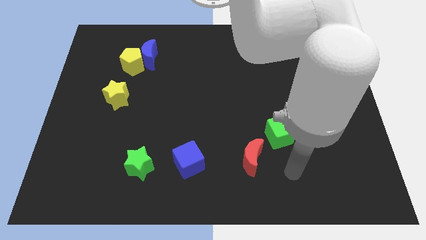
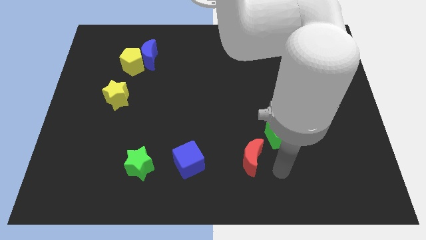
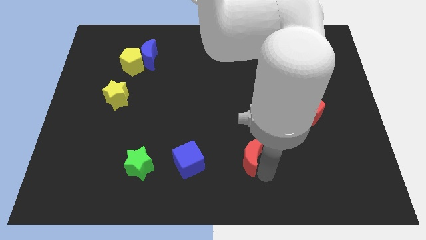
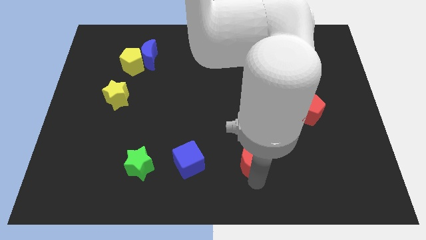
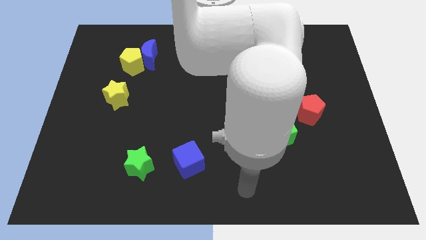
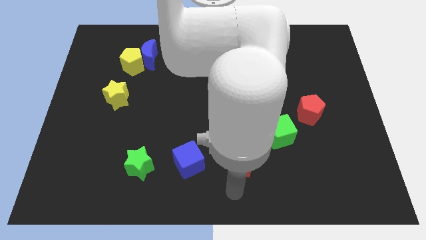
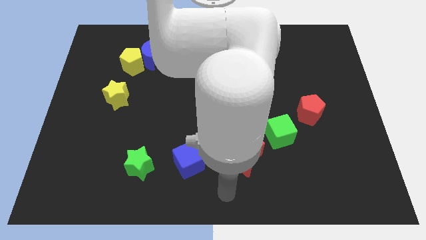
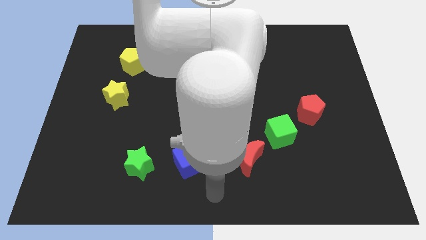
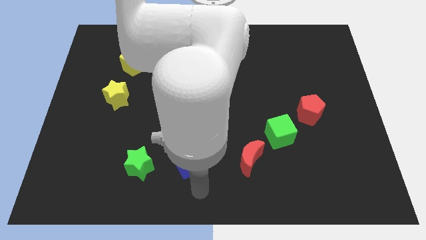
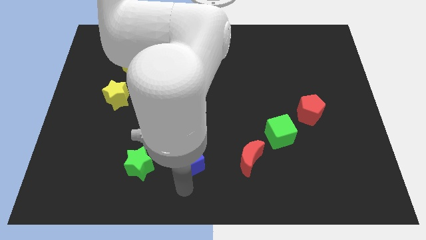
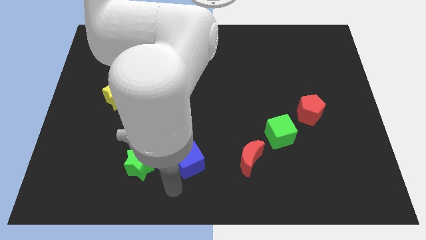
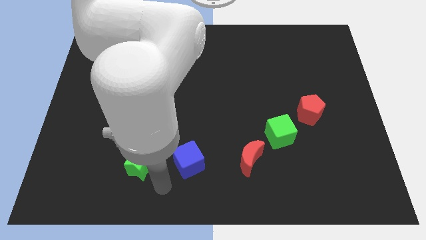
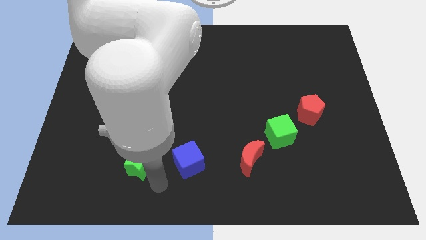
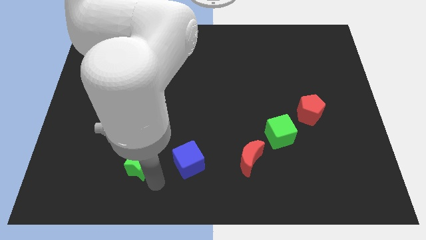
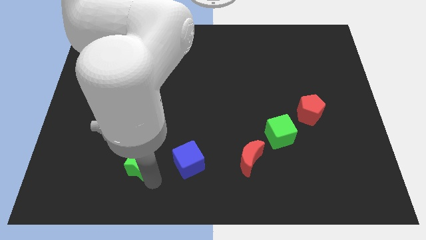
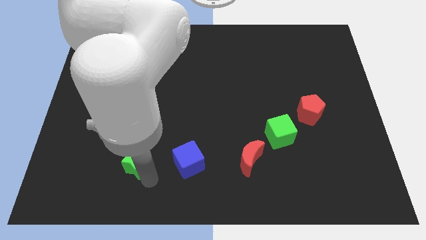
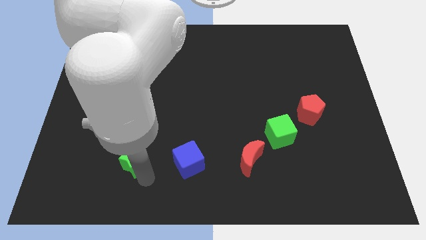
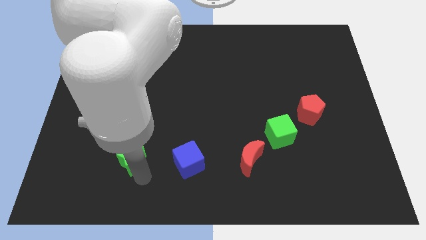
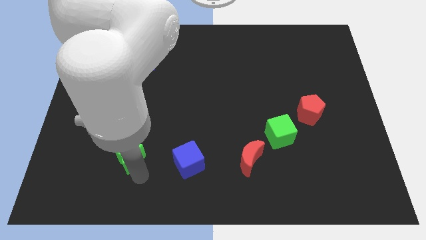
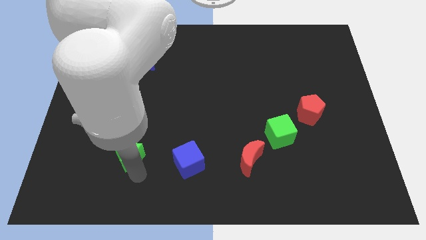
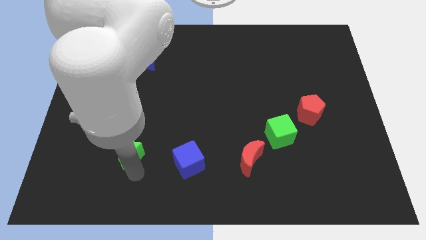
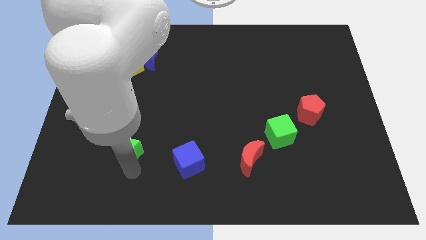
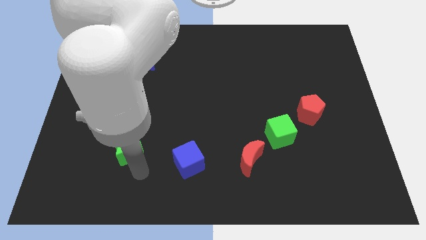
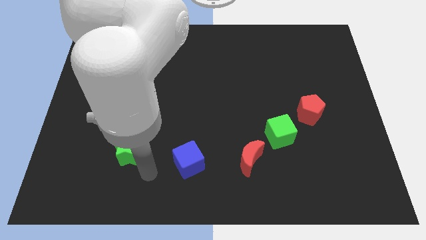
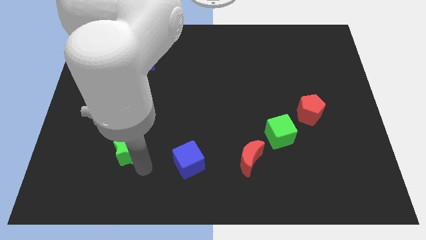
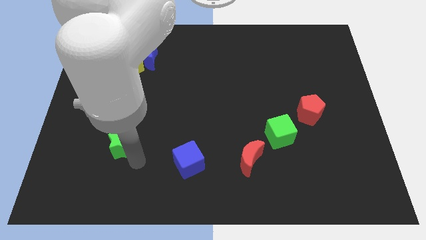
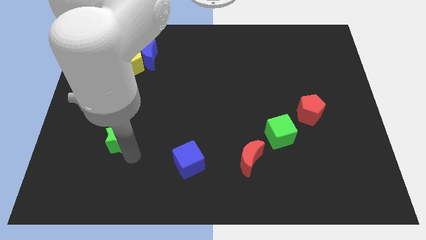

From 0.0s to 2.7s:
push the green star up and to the left somewhat

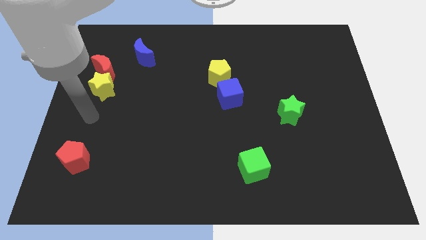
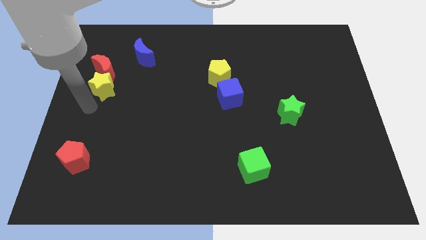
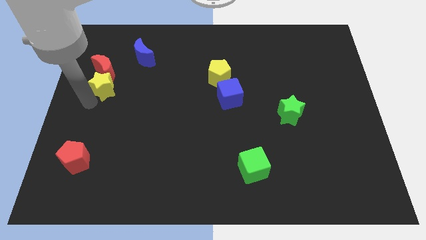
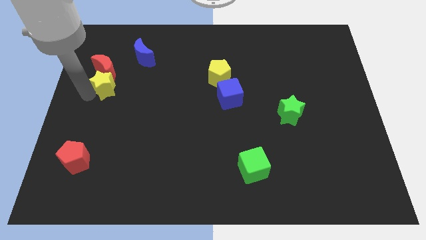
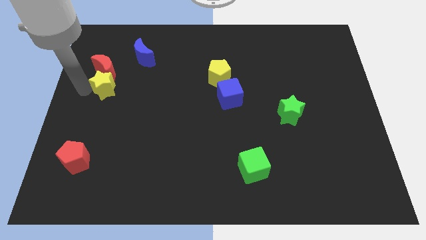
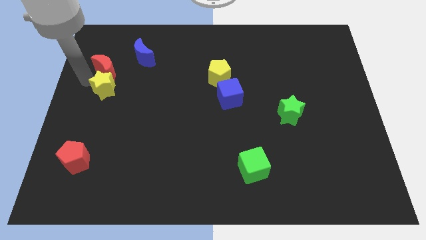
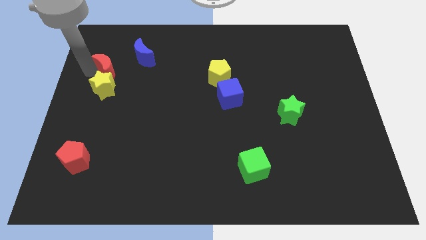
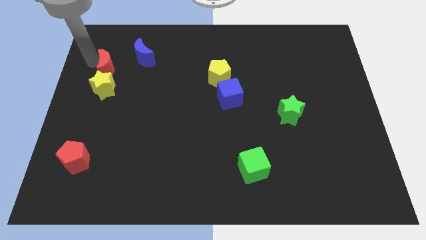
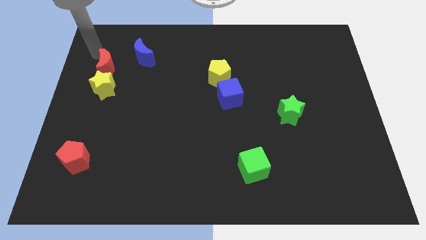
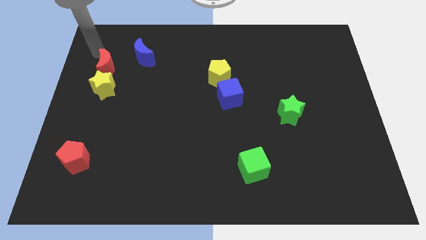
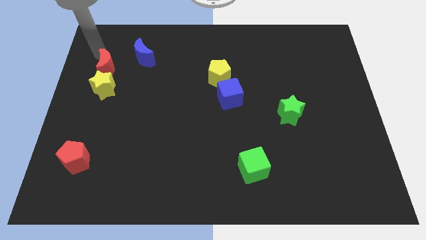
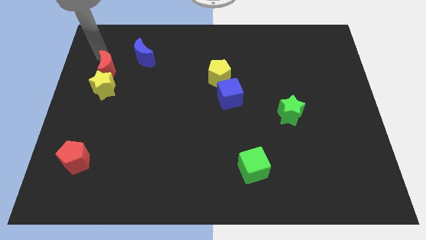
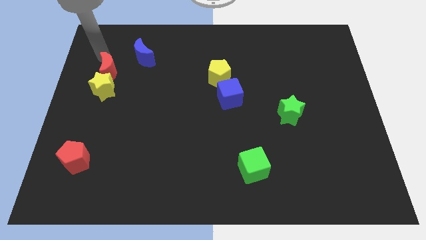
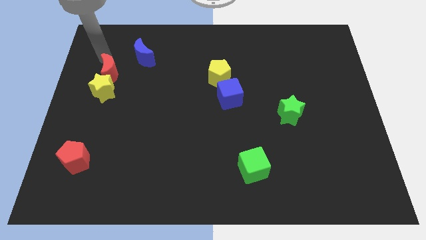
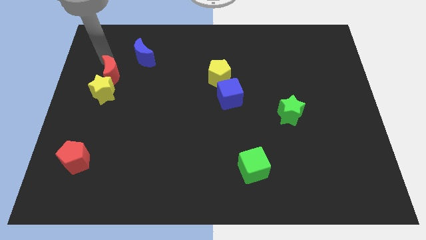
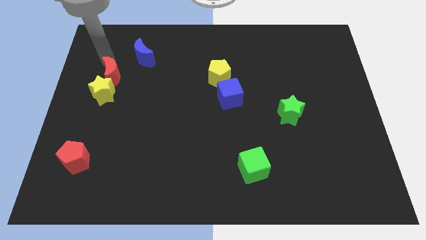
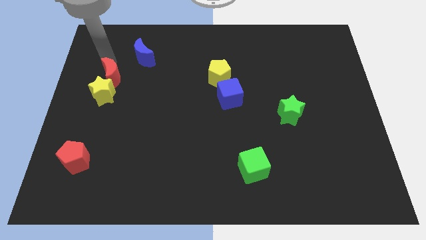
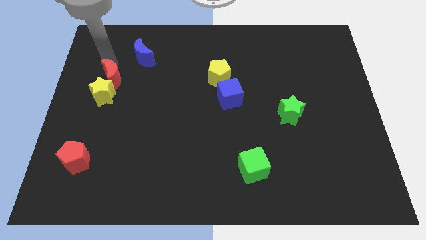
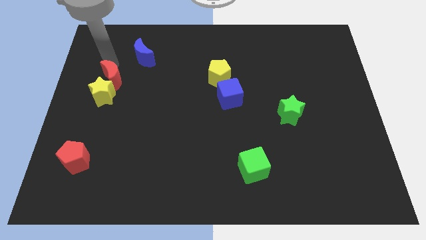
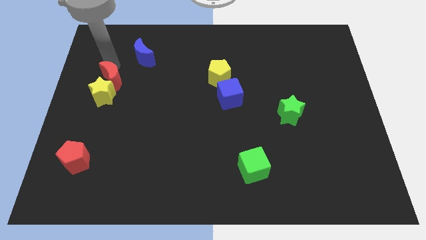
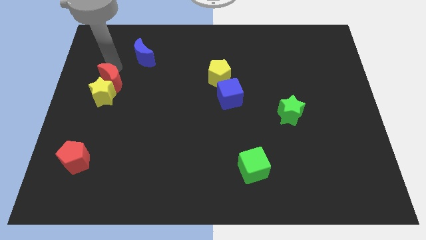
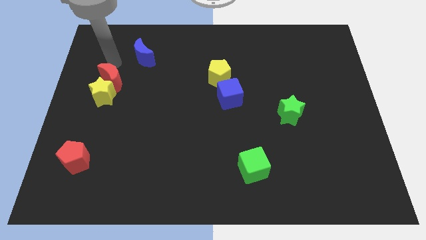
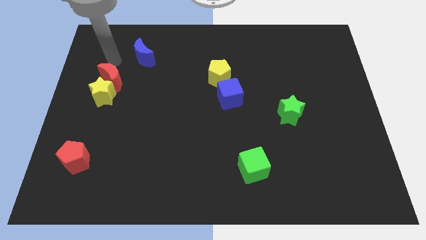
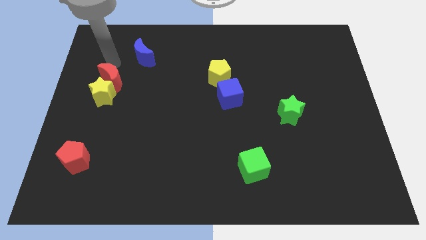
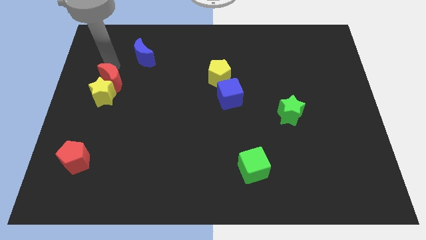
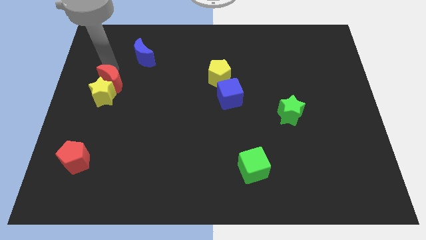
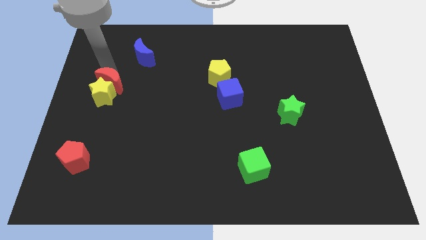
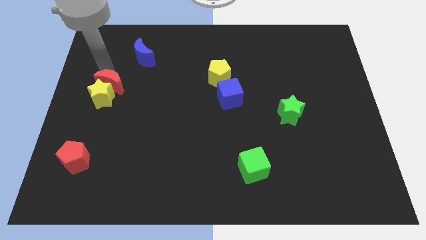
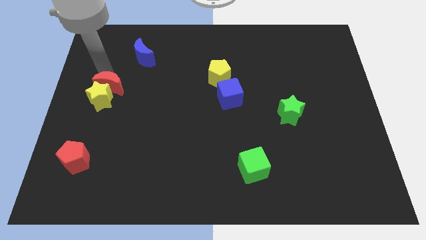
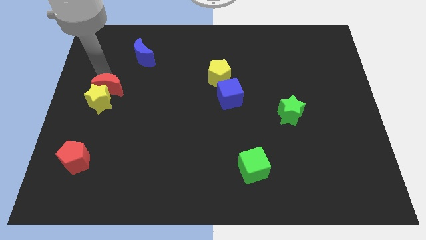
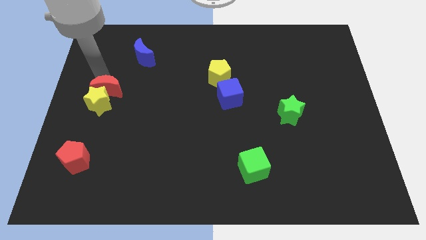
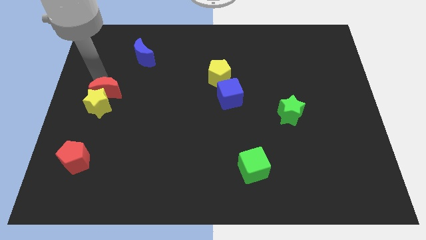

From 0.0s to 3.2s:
push the red moon down a little bit

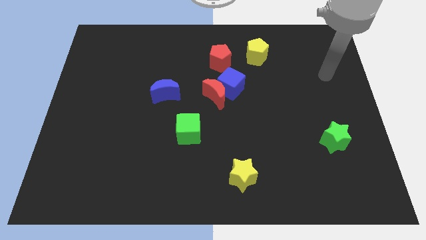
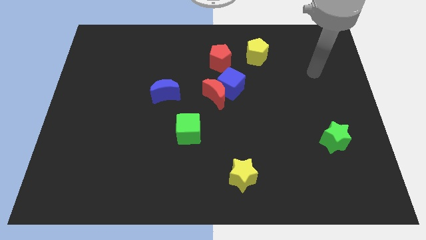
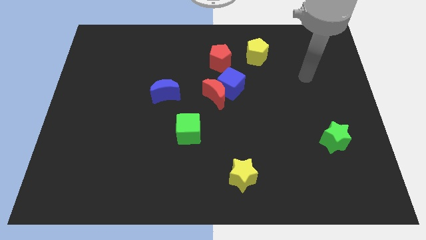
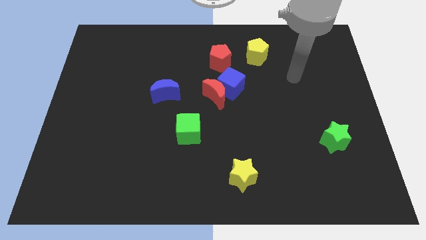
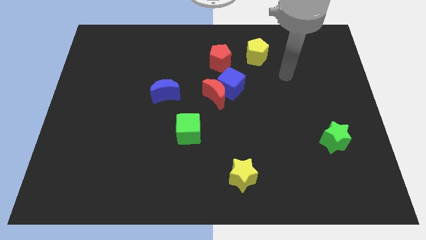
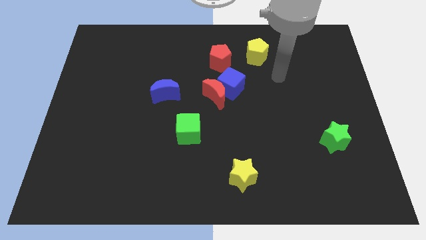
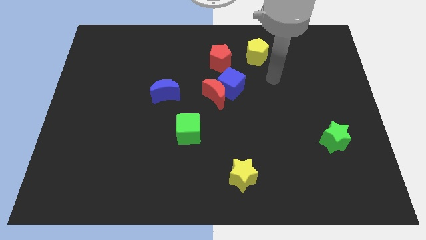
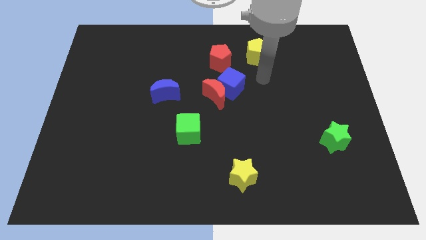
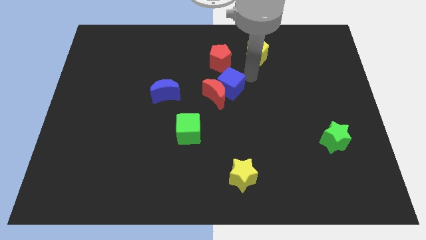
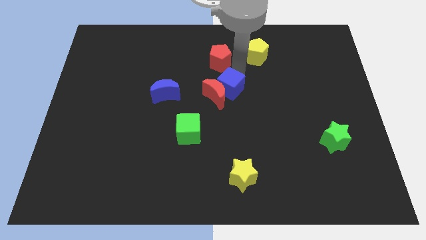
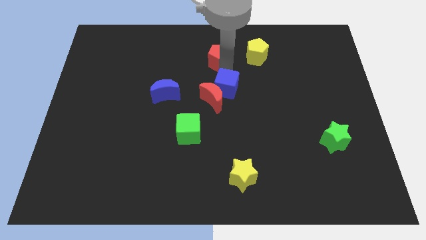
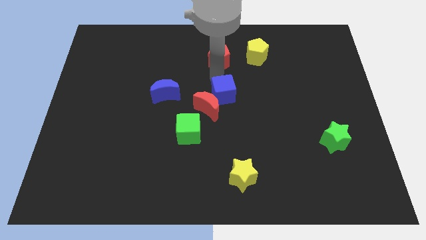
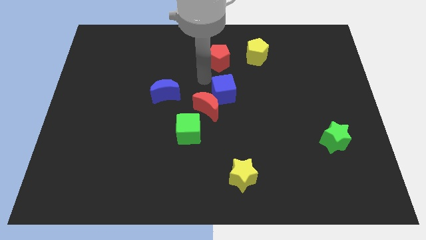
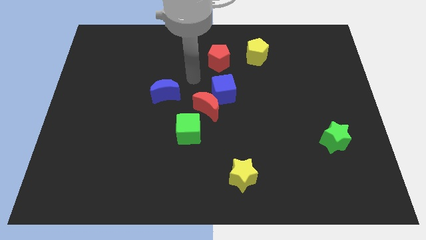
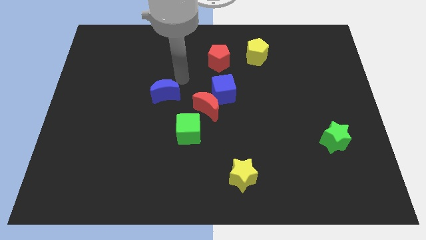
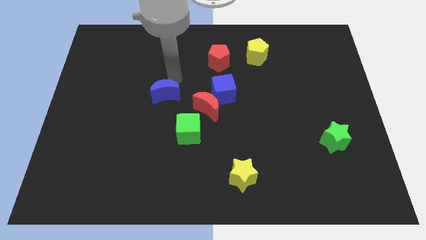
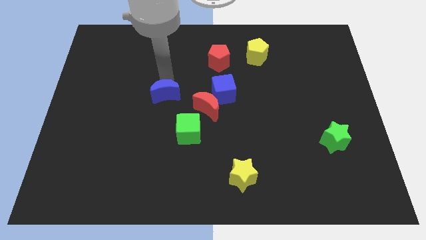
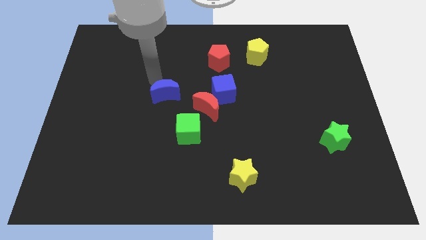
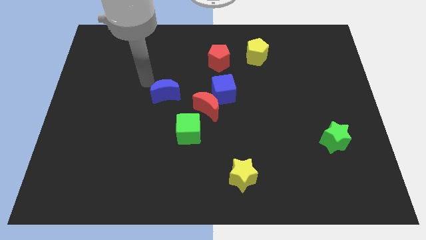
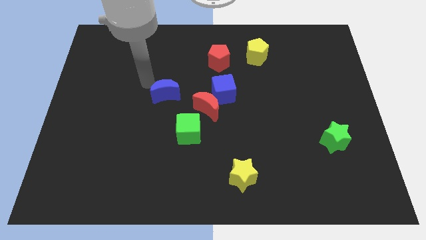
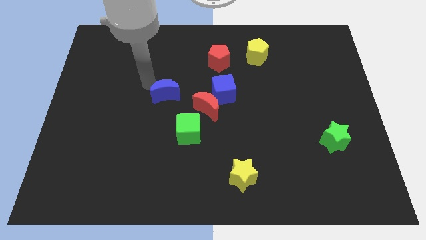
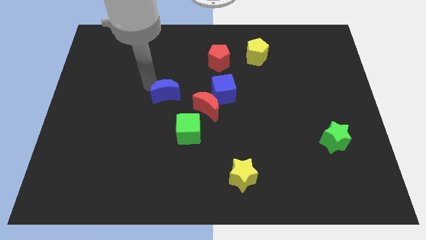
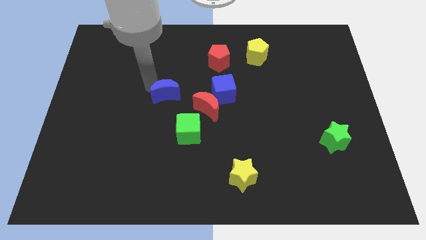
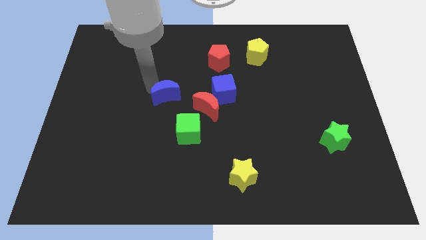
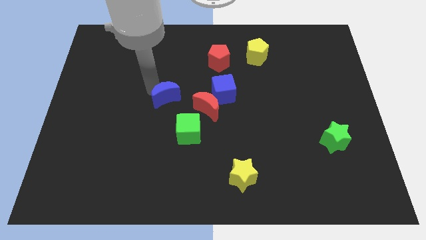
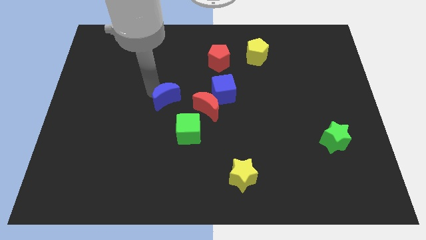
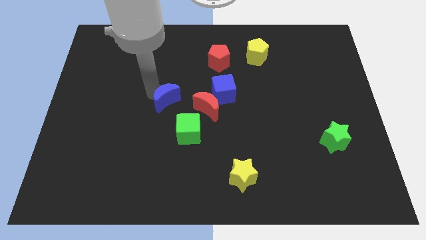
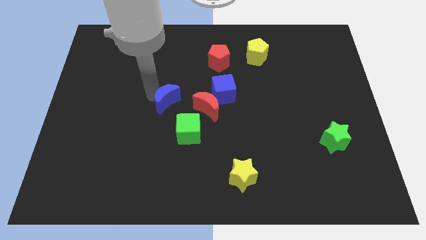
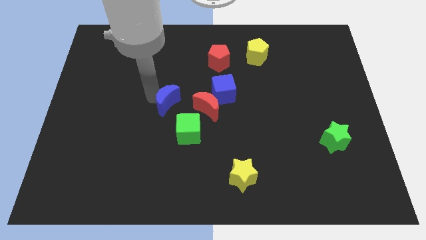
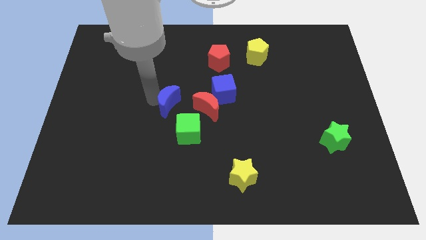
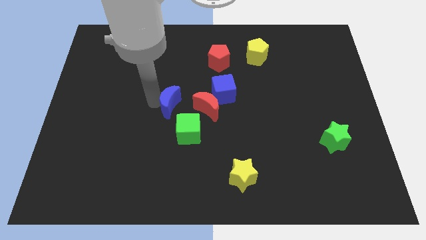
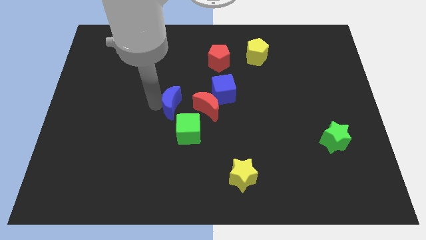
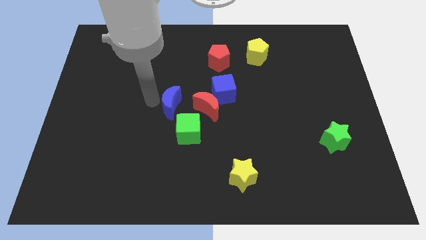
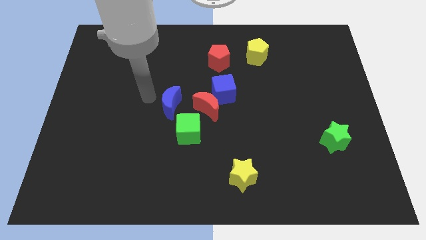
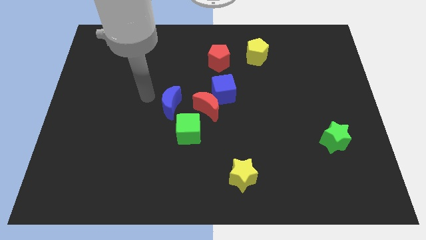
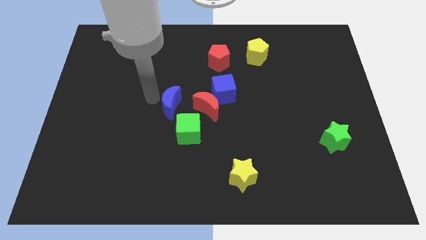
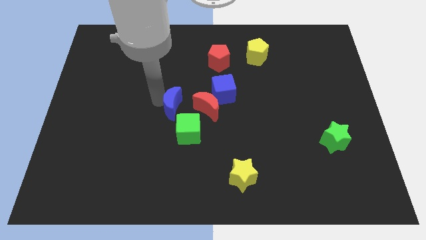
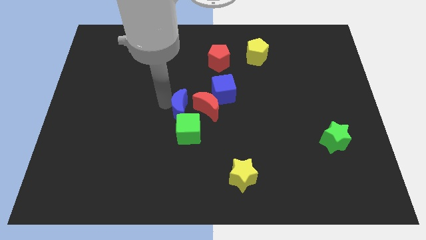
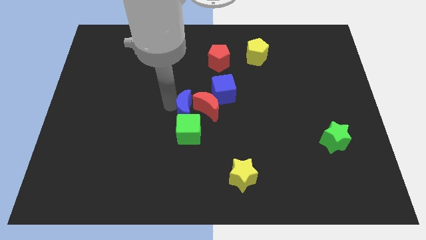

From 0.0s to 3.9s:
slightly slide the blue moon downwards and to the right
